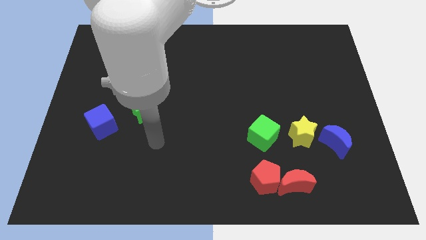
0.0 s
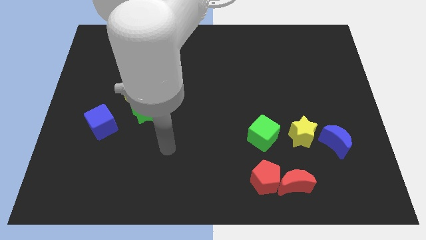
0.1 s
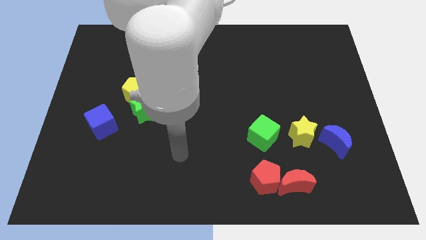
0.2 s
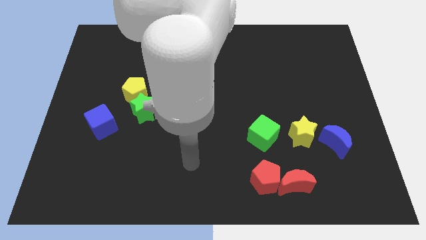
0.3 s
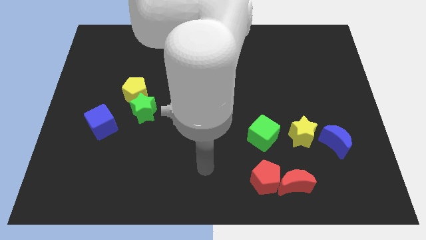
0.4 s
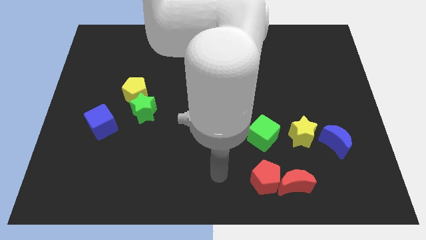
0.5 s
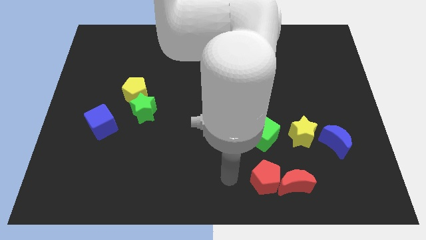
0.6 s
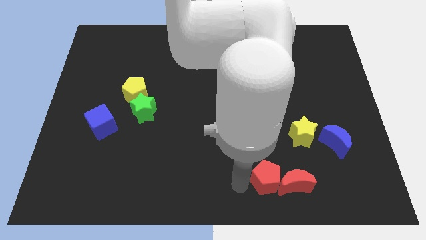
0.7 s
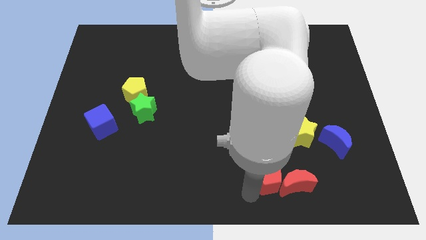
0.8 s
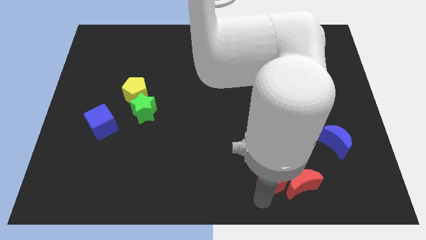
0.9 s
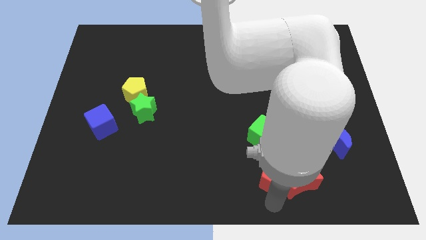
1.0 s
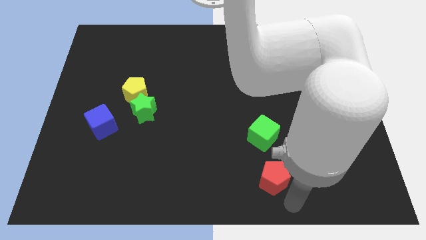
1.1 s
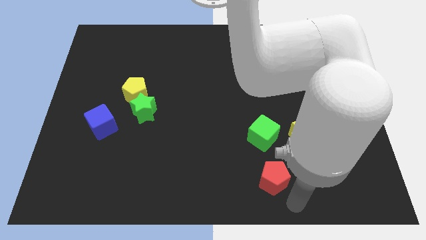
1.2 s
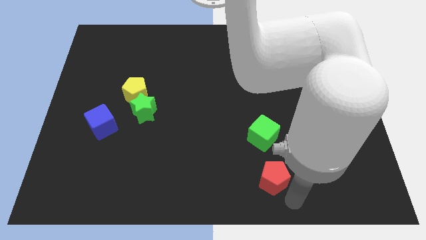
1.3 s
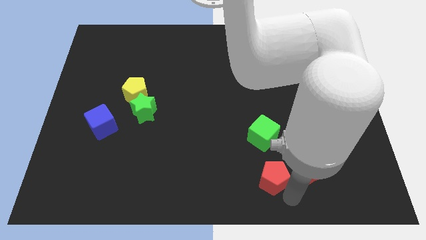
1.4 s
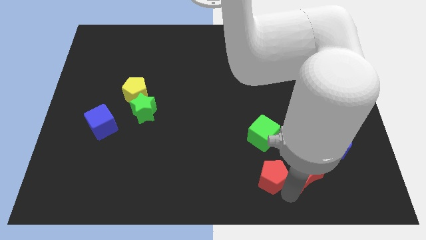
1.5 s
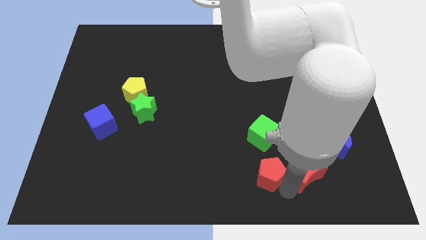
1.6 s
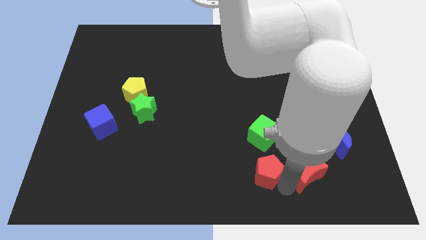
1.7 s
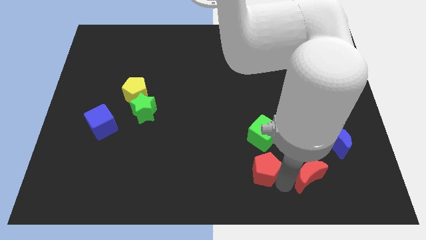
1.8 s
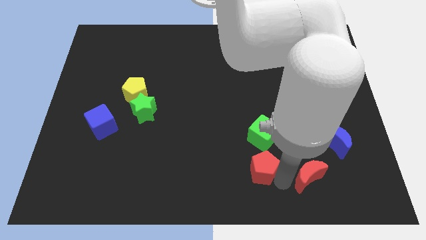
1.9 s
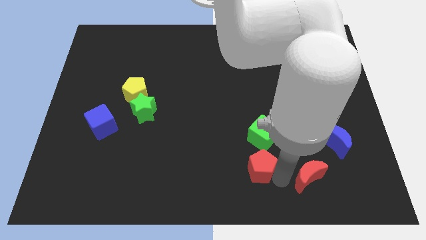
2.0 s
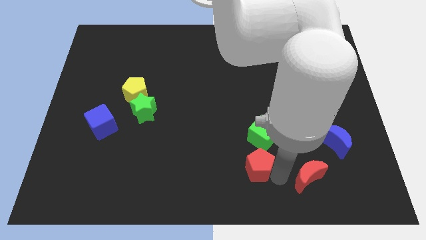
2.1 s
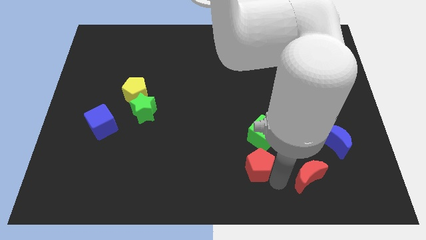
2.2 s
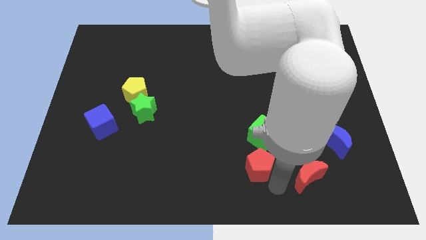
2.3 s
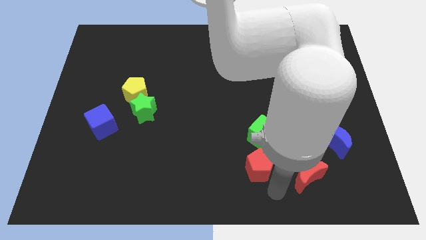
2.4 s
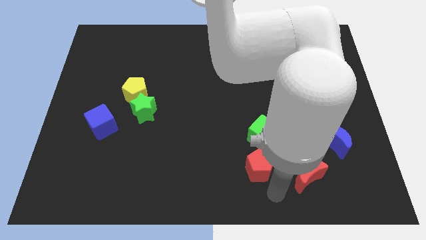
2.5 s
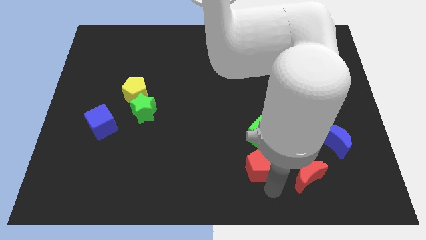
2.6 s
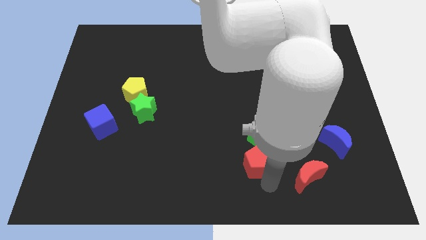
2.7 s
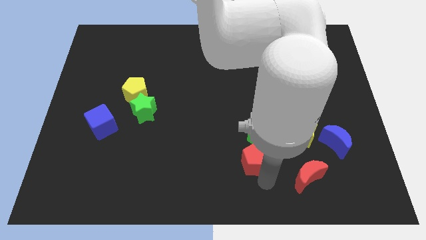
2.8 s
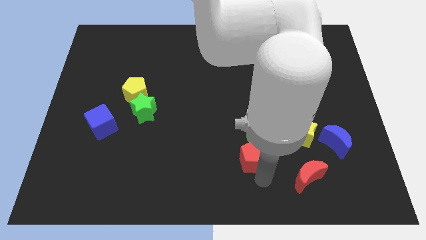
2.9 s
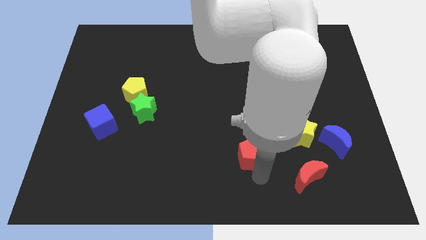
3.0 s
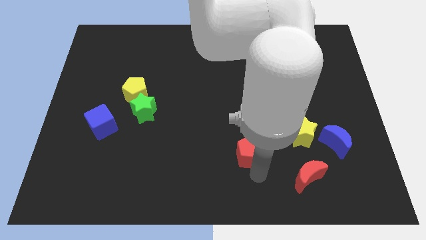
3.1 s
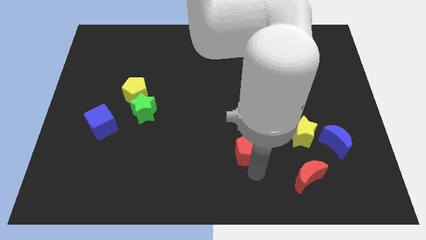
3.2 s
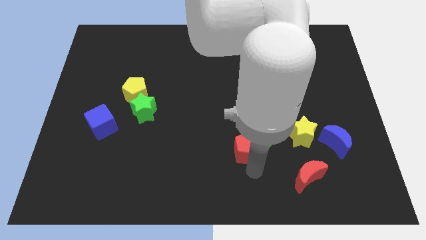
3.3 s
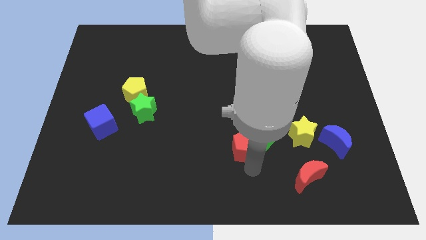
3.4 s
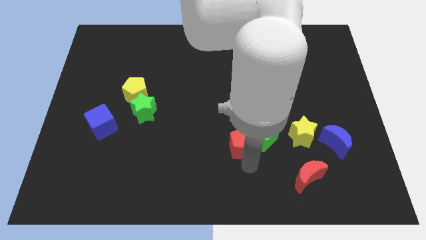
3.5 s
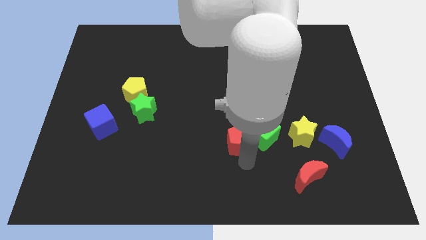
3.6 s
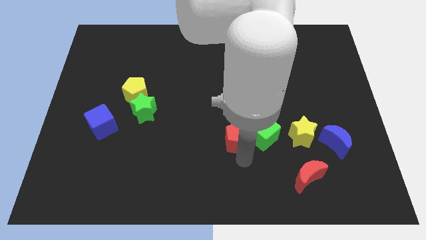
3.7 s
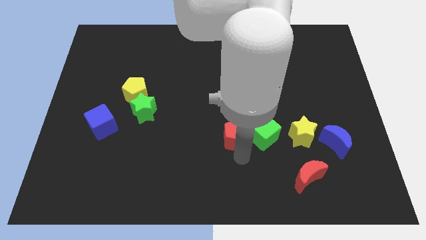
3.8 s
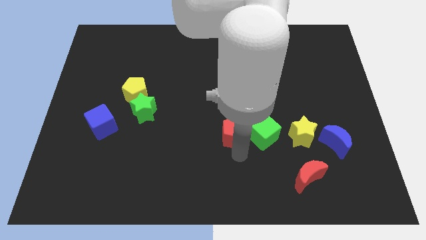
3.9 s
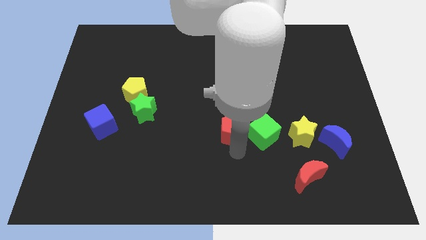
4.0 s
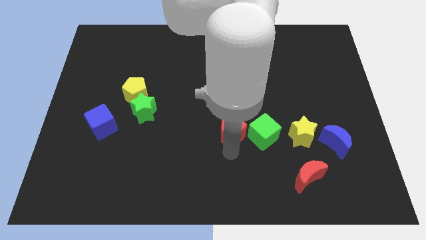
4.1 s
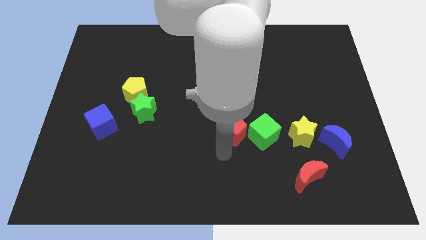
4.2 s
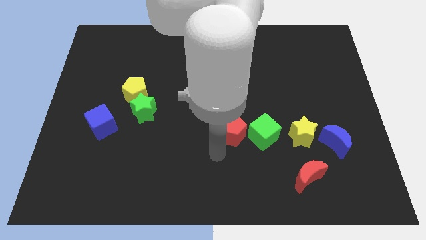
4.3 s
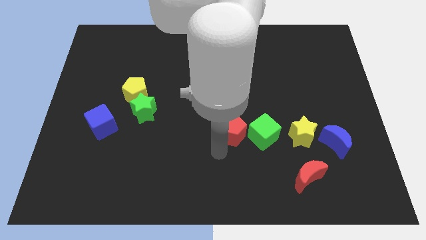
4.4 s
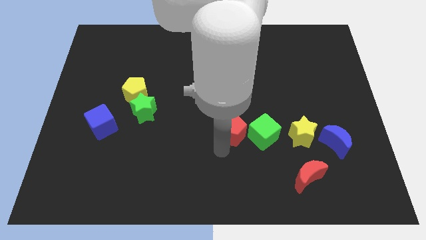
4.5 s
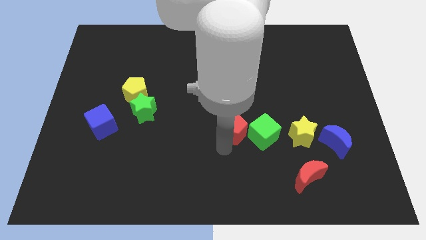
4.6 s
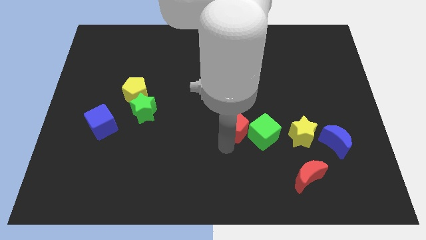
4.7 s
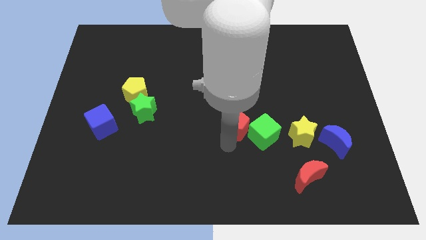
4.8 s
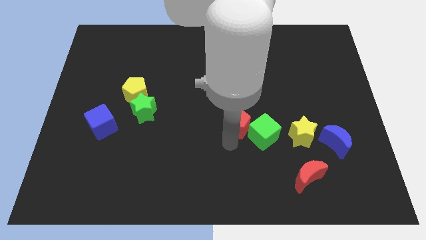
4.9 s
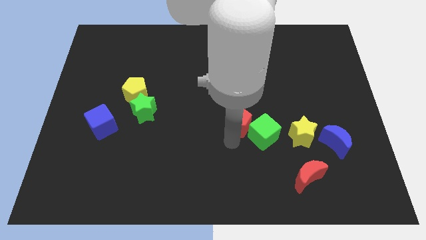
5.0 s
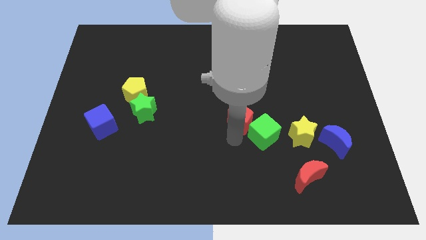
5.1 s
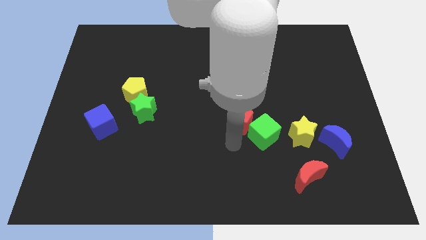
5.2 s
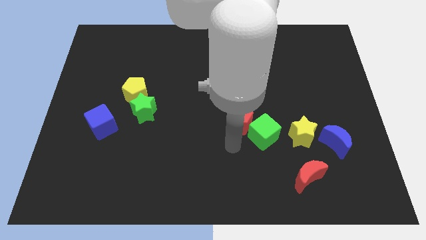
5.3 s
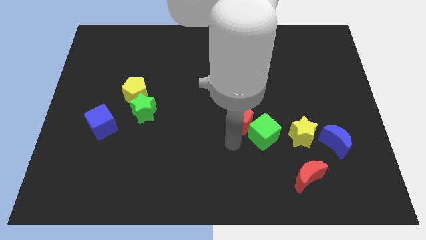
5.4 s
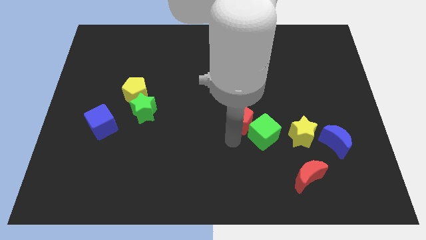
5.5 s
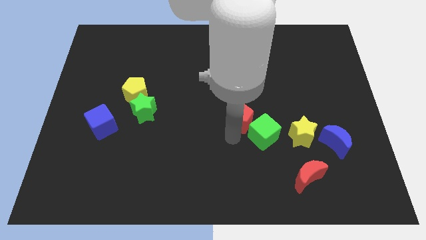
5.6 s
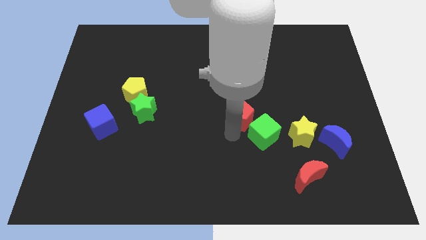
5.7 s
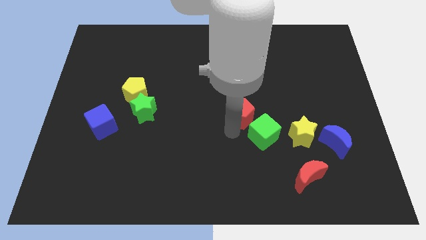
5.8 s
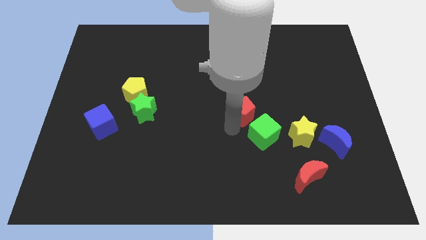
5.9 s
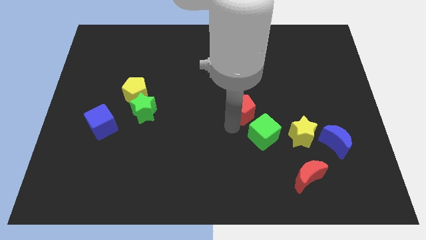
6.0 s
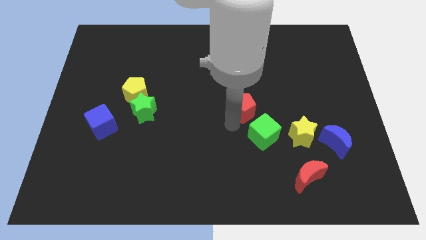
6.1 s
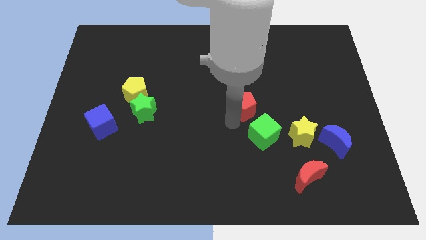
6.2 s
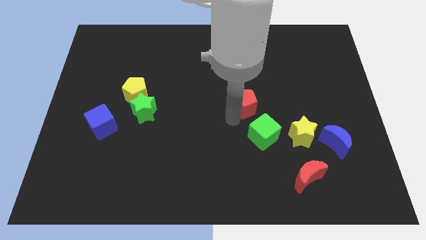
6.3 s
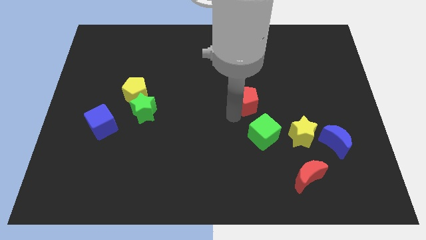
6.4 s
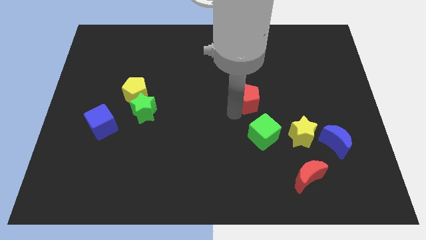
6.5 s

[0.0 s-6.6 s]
move the red pentagon up

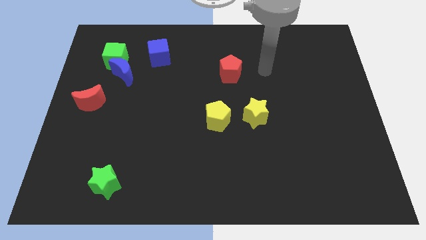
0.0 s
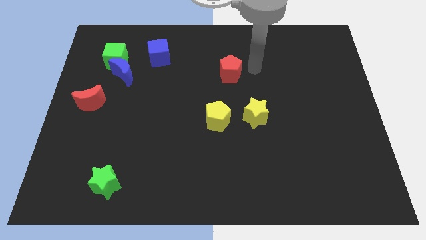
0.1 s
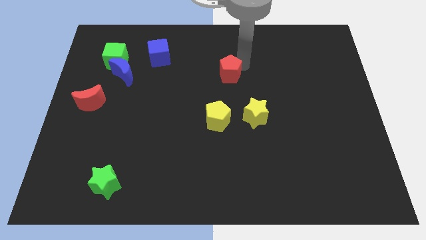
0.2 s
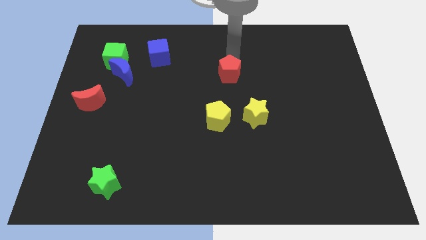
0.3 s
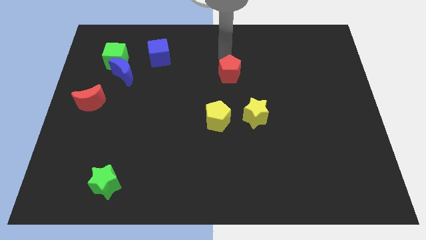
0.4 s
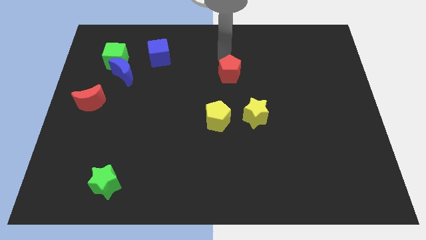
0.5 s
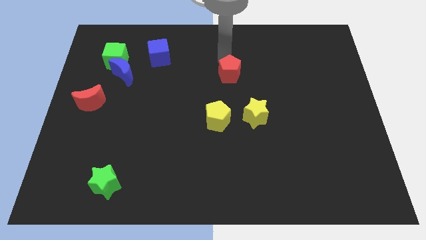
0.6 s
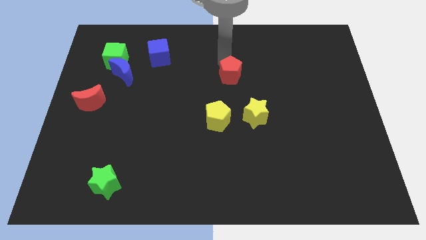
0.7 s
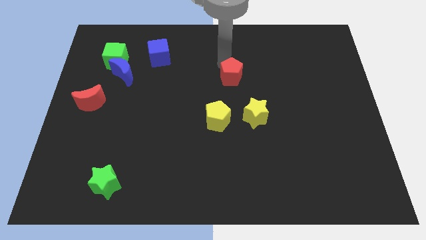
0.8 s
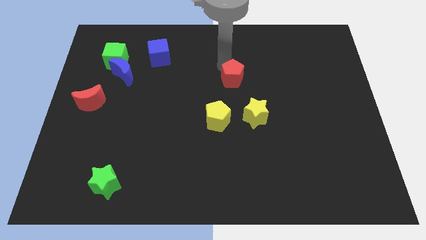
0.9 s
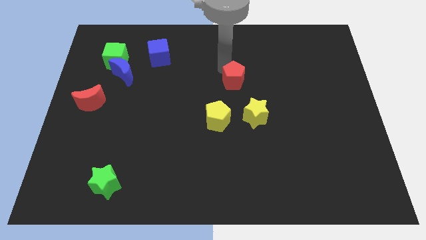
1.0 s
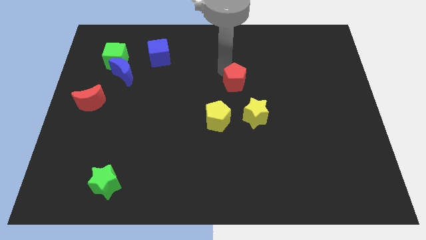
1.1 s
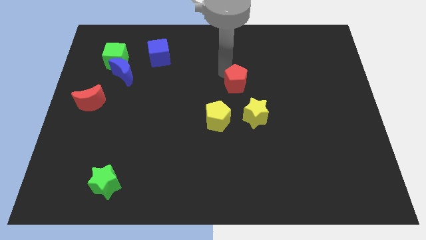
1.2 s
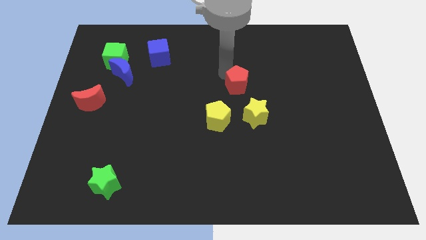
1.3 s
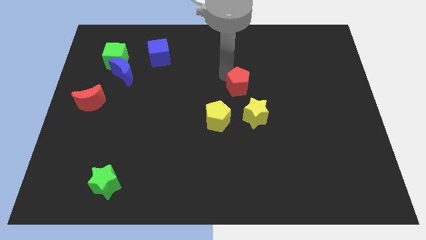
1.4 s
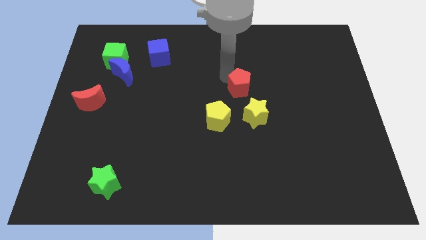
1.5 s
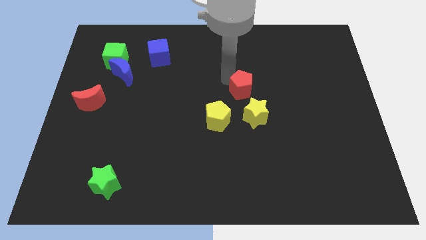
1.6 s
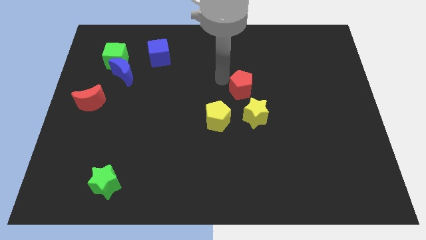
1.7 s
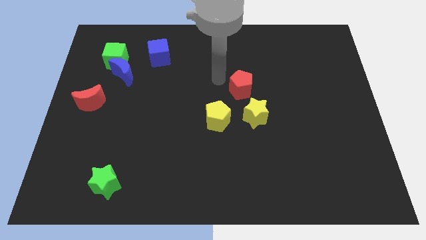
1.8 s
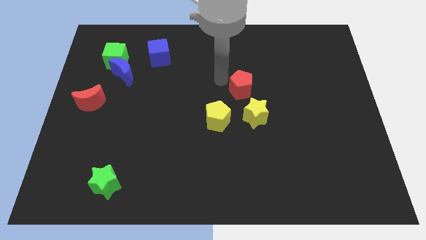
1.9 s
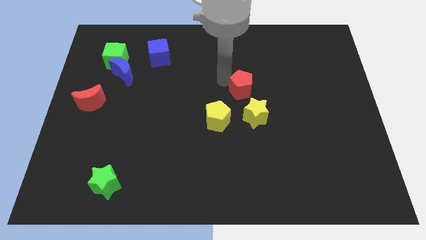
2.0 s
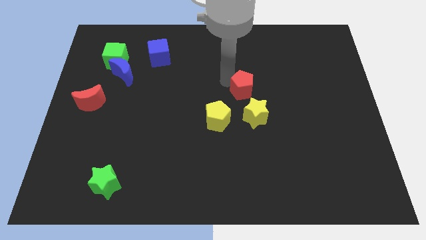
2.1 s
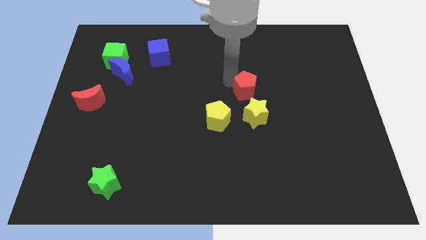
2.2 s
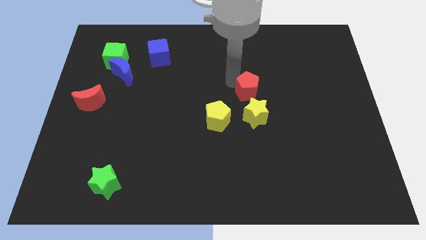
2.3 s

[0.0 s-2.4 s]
slide the red pentagon diagonally down and to the right a little bit
